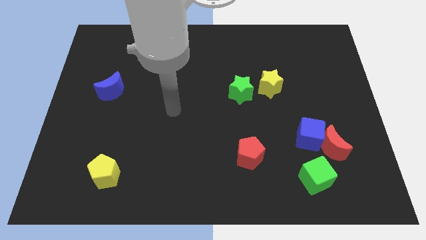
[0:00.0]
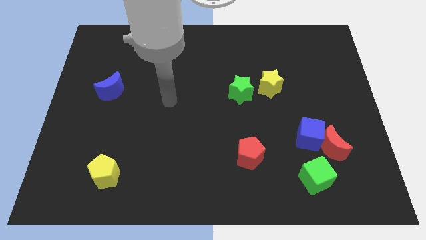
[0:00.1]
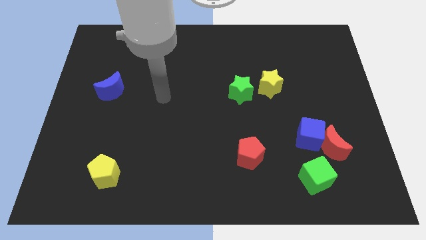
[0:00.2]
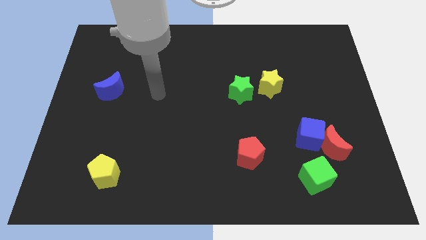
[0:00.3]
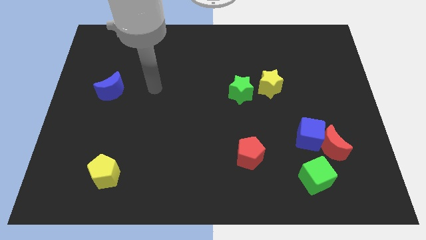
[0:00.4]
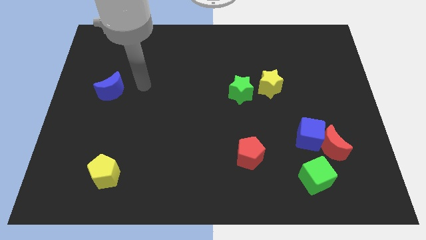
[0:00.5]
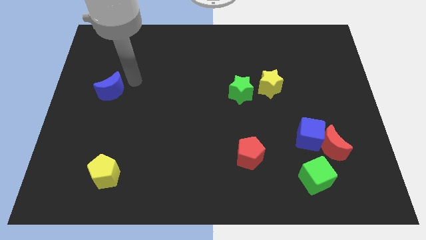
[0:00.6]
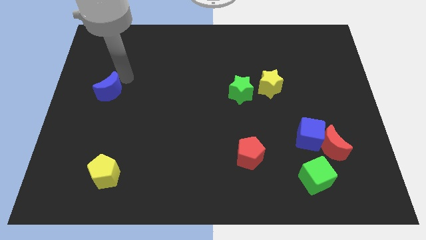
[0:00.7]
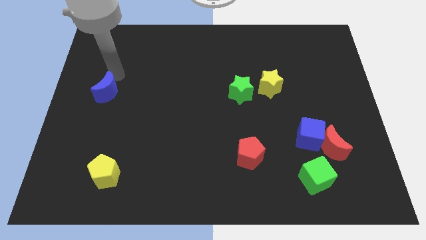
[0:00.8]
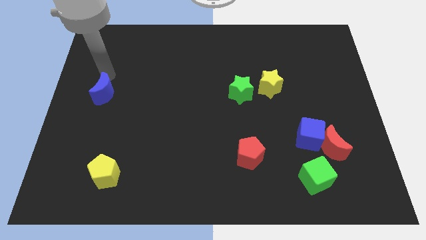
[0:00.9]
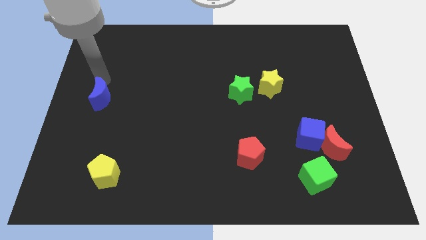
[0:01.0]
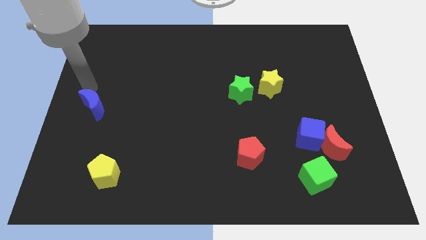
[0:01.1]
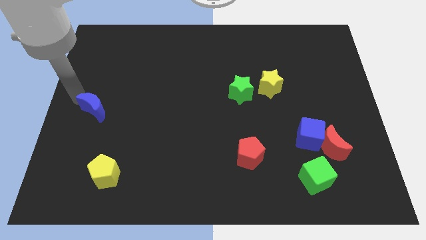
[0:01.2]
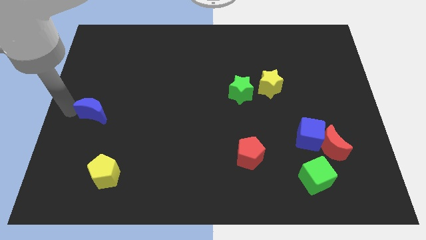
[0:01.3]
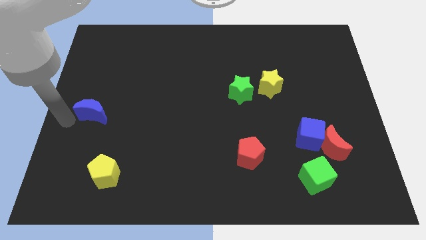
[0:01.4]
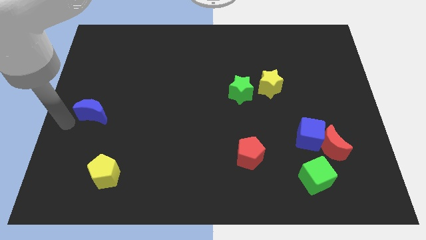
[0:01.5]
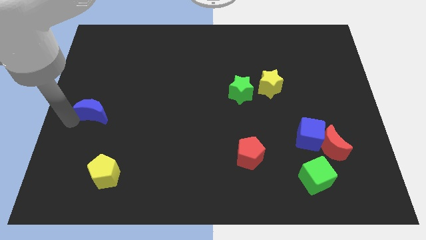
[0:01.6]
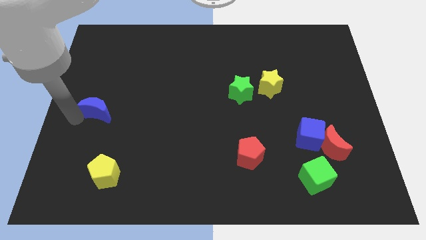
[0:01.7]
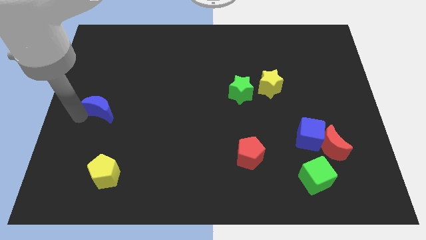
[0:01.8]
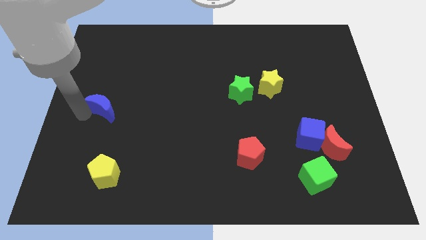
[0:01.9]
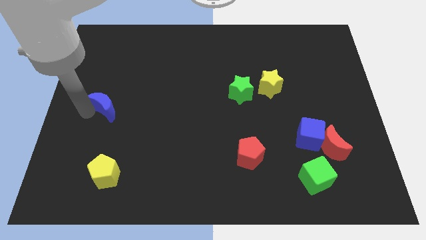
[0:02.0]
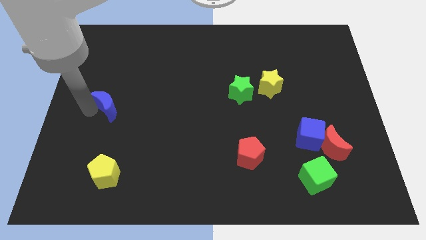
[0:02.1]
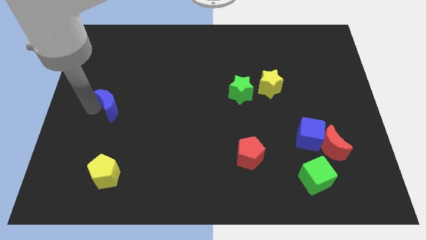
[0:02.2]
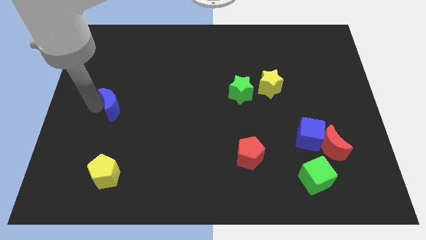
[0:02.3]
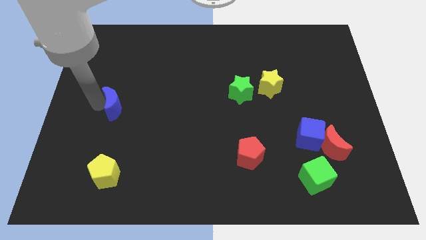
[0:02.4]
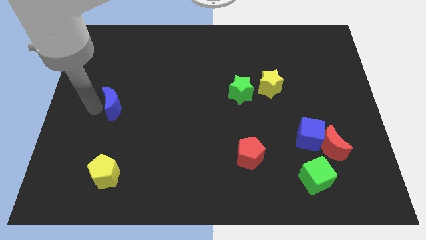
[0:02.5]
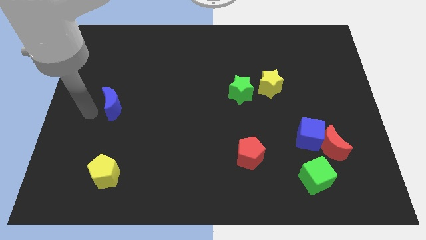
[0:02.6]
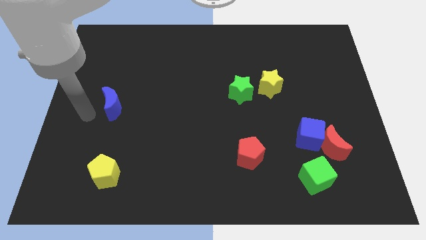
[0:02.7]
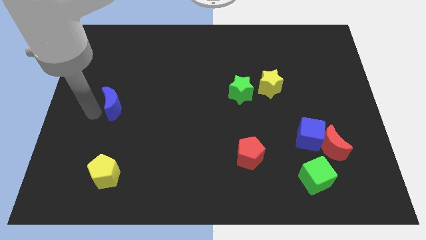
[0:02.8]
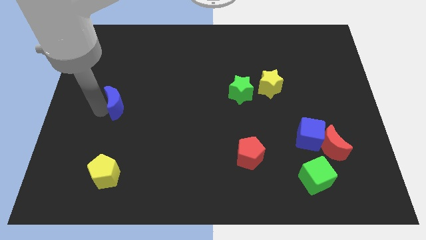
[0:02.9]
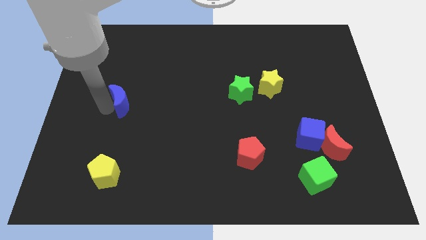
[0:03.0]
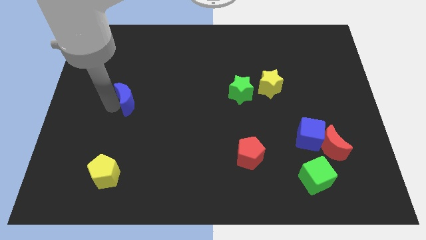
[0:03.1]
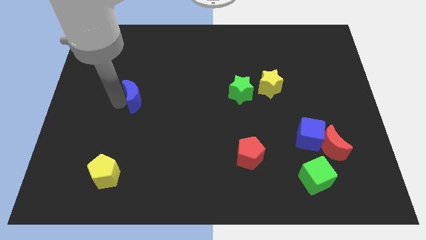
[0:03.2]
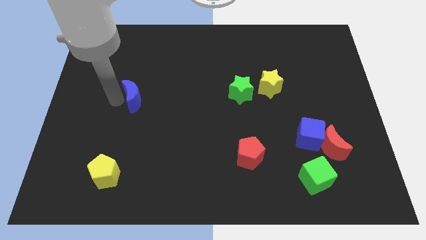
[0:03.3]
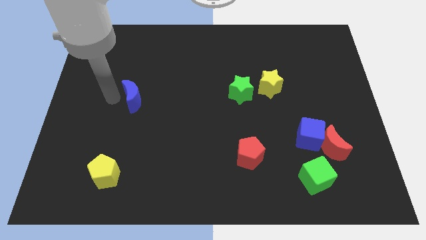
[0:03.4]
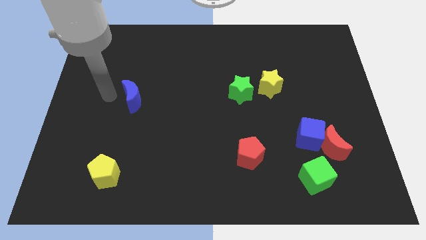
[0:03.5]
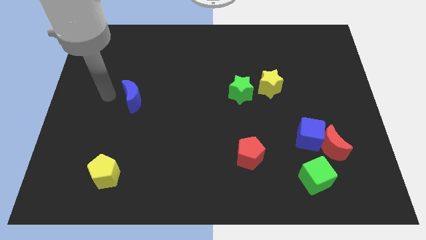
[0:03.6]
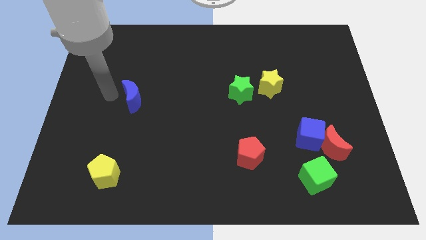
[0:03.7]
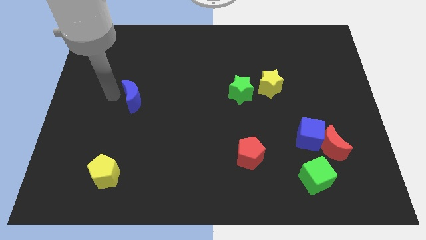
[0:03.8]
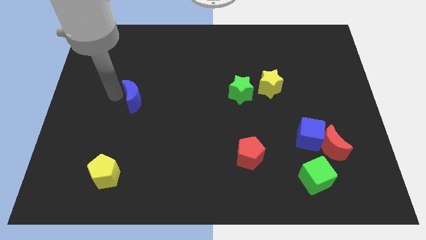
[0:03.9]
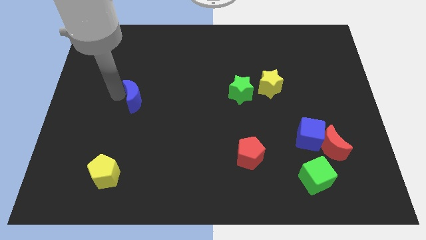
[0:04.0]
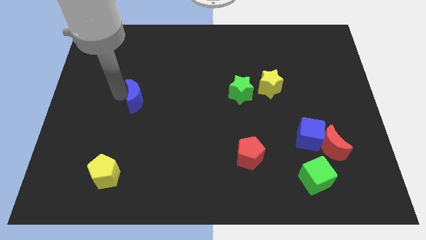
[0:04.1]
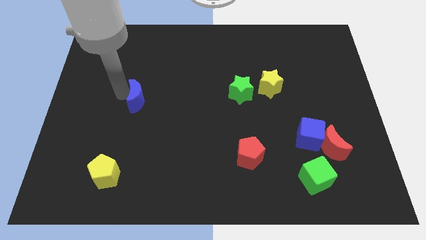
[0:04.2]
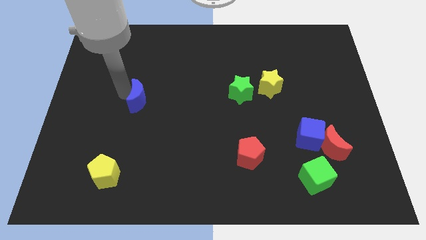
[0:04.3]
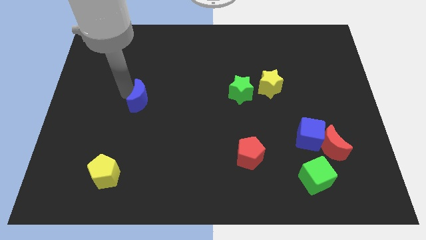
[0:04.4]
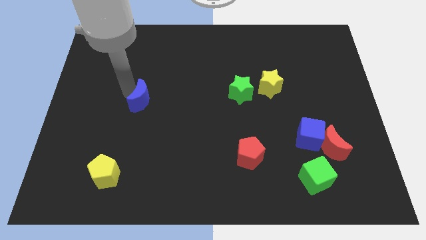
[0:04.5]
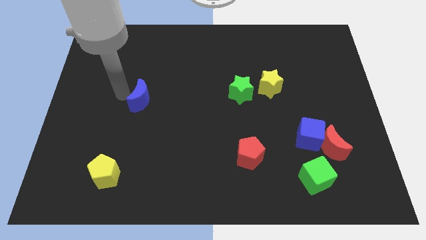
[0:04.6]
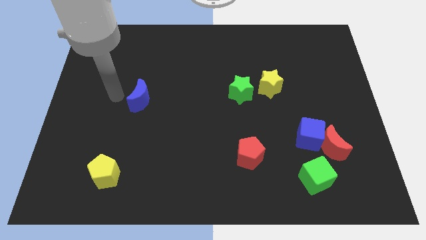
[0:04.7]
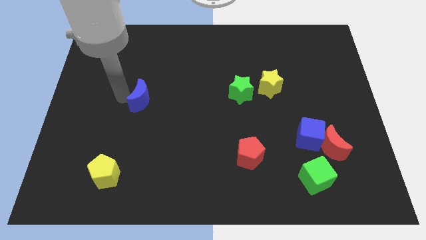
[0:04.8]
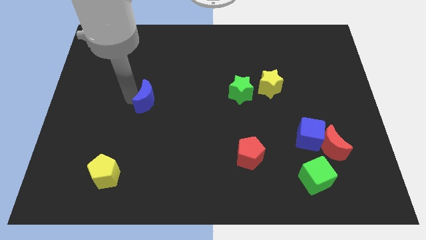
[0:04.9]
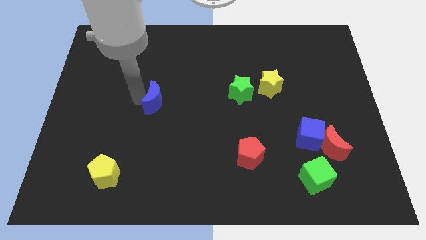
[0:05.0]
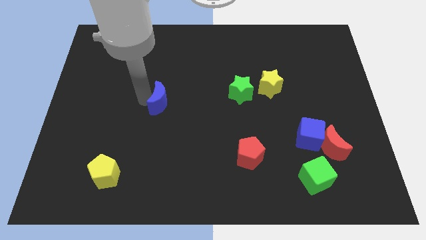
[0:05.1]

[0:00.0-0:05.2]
push the blue moon to the middle

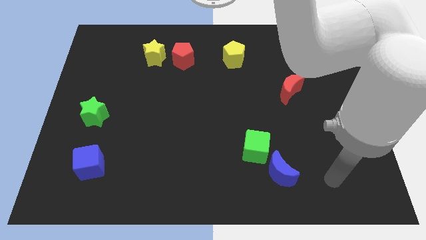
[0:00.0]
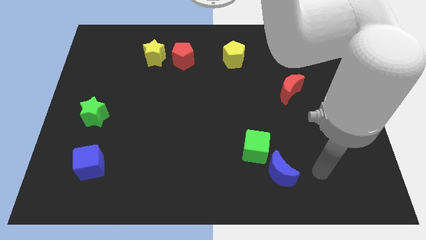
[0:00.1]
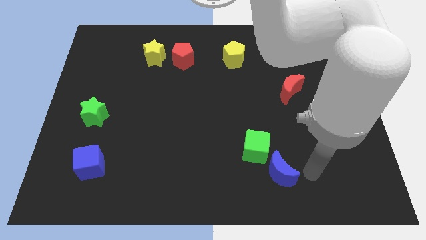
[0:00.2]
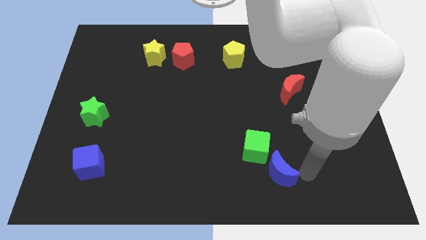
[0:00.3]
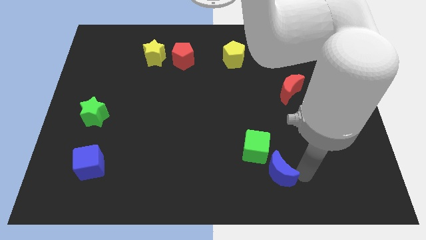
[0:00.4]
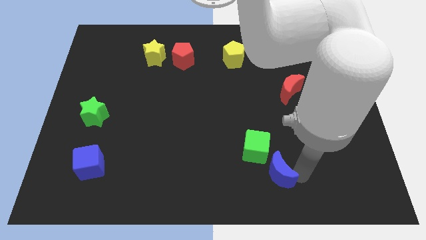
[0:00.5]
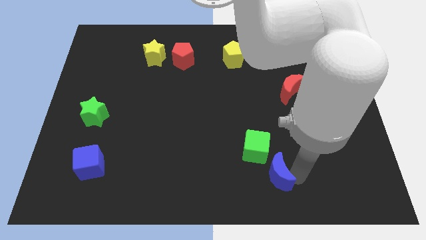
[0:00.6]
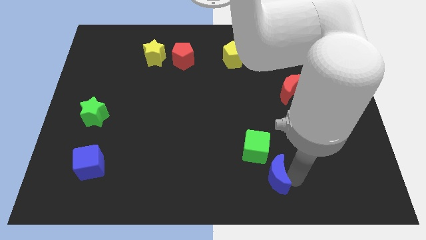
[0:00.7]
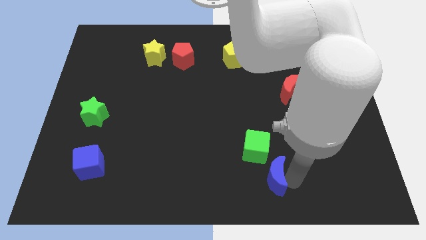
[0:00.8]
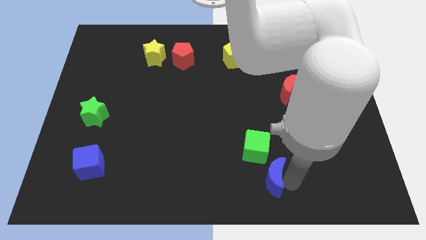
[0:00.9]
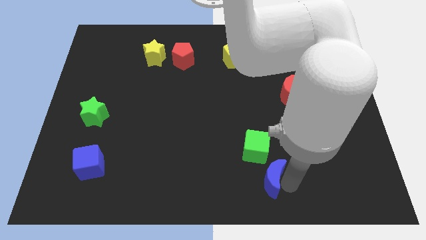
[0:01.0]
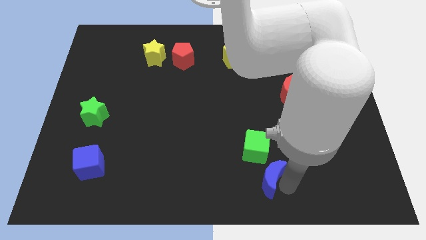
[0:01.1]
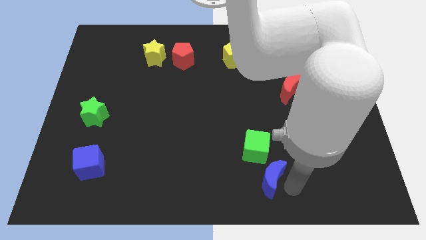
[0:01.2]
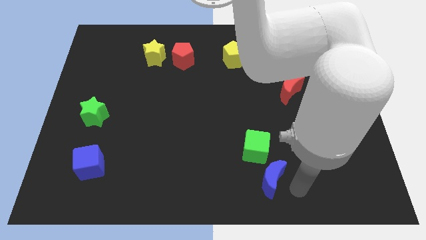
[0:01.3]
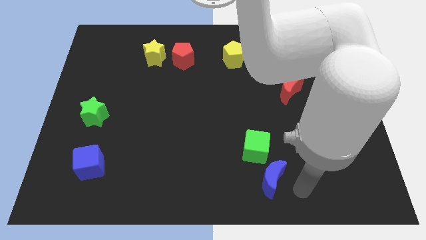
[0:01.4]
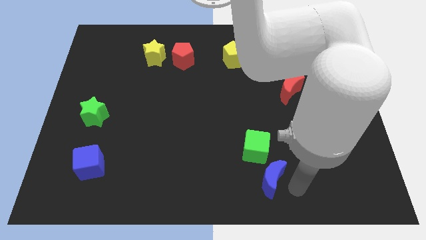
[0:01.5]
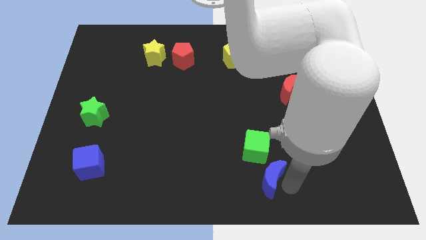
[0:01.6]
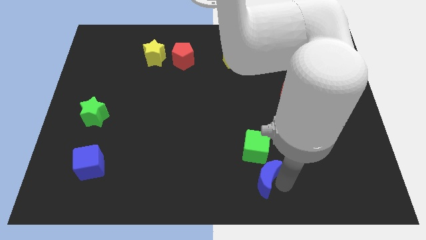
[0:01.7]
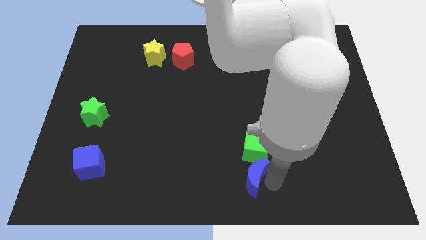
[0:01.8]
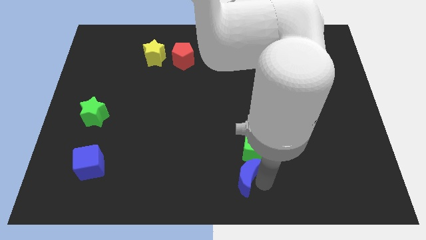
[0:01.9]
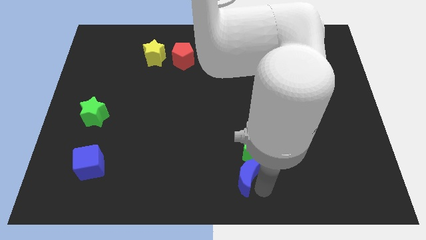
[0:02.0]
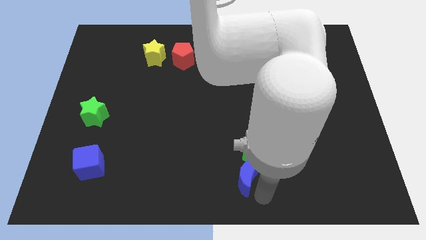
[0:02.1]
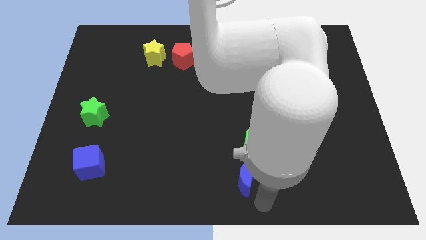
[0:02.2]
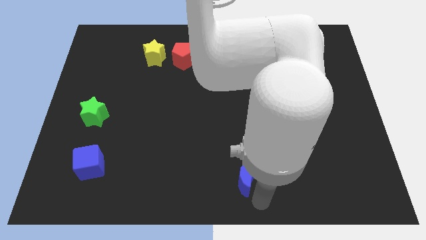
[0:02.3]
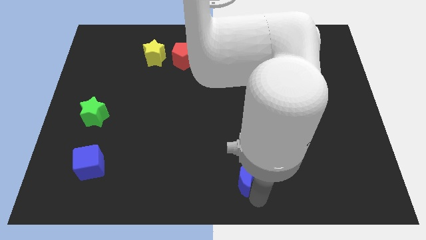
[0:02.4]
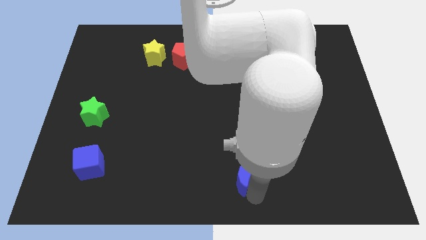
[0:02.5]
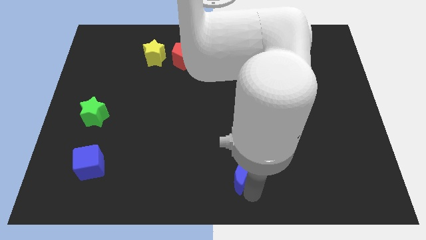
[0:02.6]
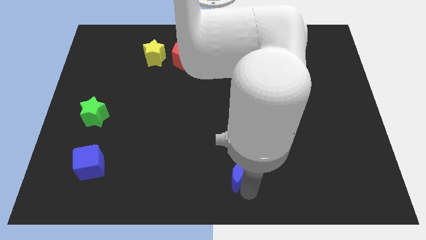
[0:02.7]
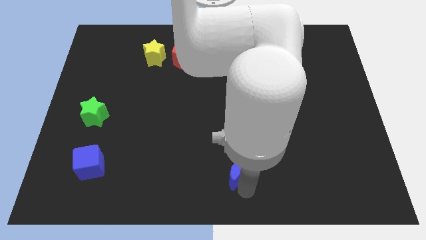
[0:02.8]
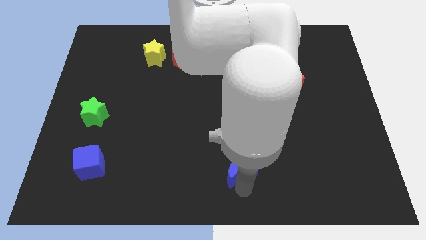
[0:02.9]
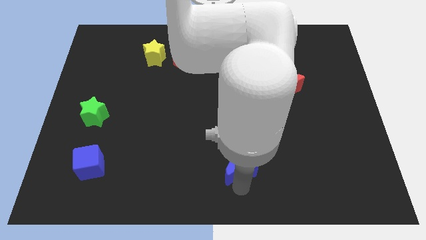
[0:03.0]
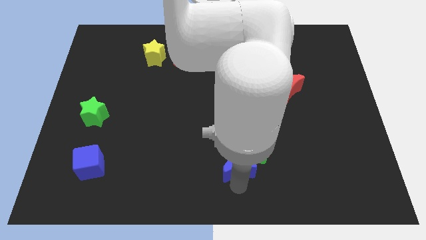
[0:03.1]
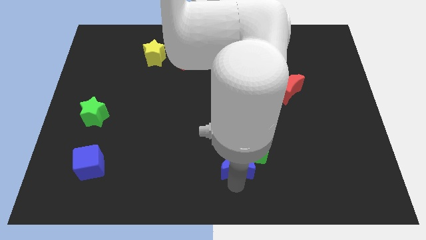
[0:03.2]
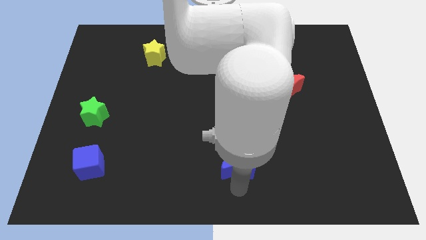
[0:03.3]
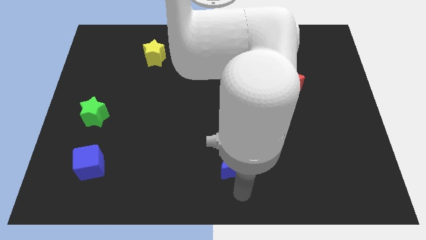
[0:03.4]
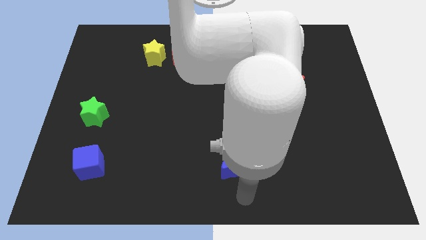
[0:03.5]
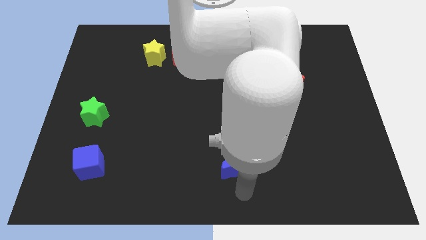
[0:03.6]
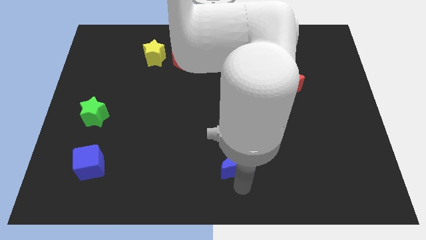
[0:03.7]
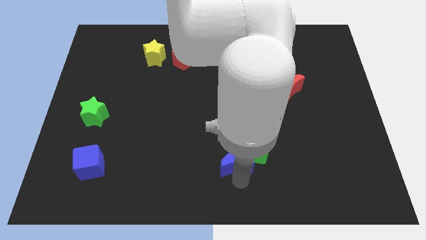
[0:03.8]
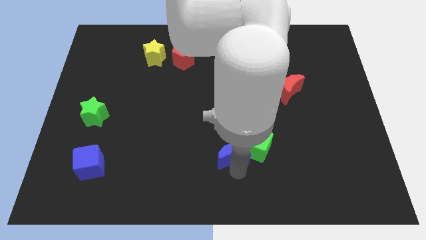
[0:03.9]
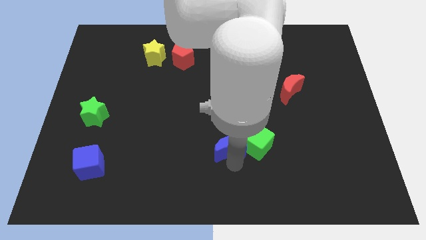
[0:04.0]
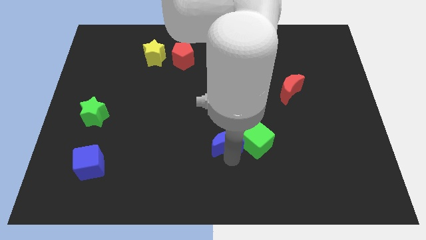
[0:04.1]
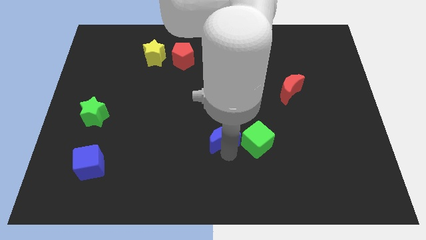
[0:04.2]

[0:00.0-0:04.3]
push the blue moon to the center
